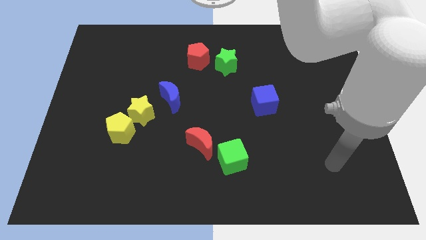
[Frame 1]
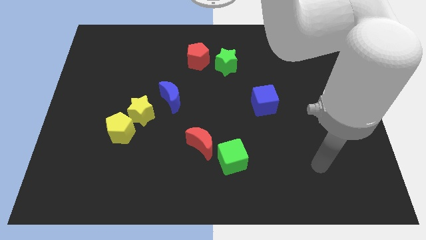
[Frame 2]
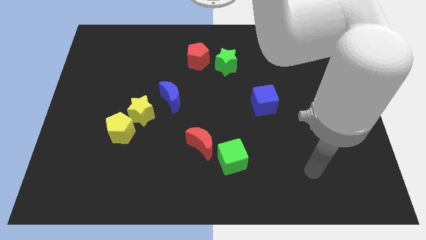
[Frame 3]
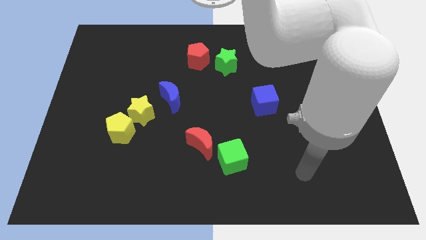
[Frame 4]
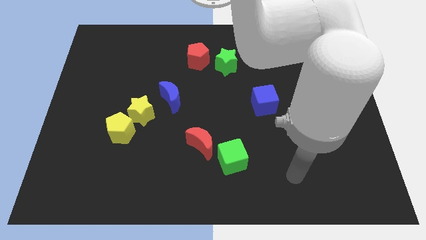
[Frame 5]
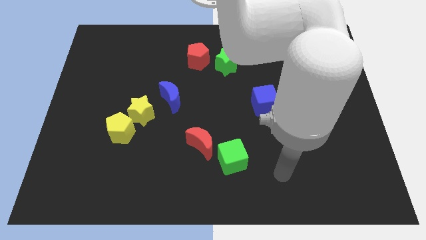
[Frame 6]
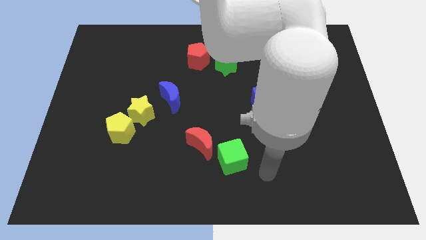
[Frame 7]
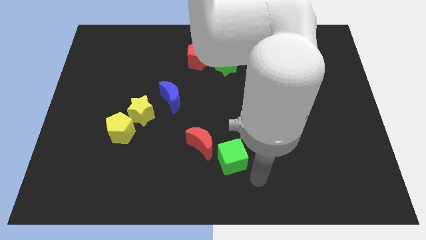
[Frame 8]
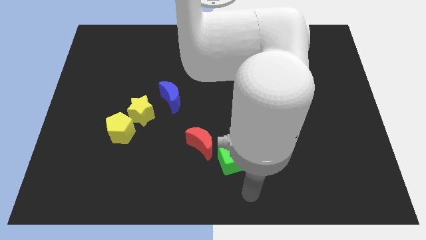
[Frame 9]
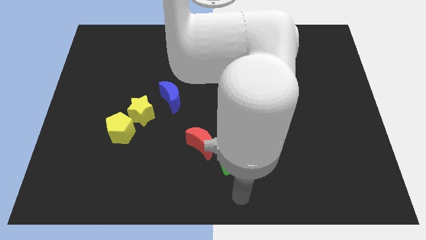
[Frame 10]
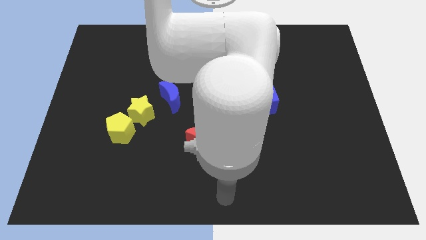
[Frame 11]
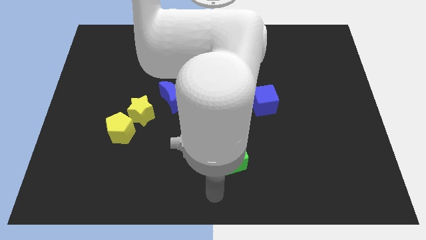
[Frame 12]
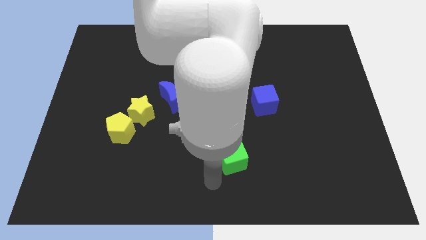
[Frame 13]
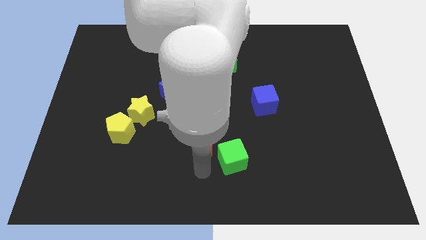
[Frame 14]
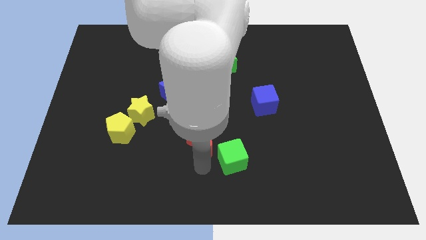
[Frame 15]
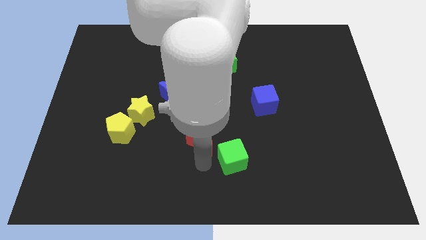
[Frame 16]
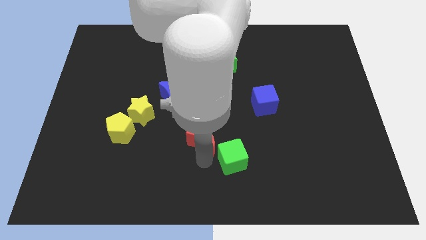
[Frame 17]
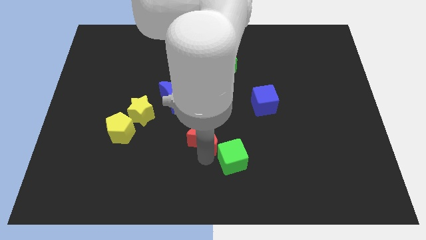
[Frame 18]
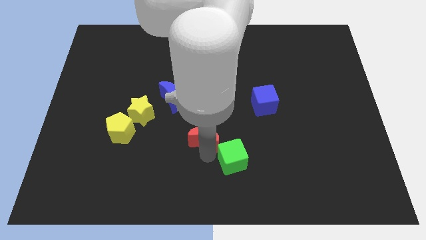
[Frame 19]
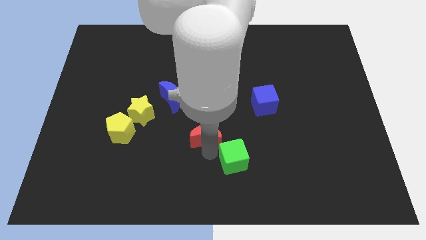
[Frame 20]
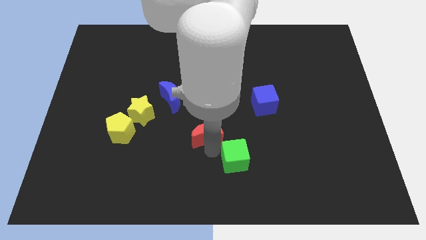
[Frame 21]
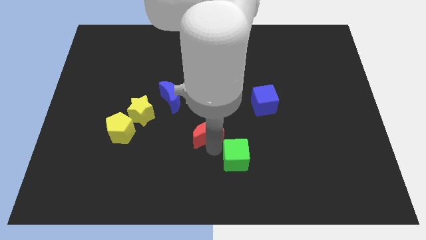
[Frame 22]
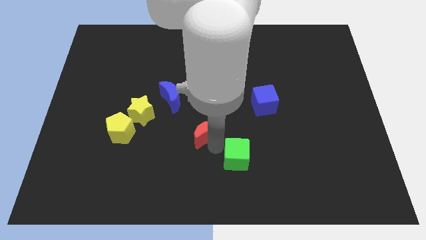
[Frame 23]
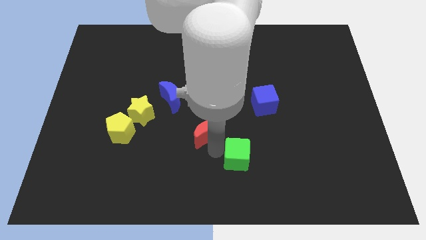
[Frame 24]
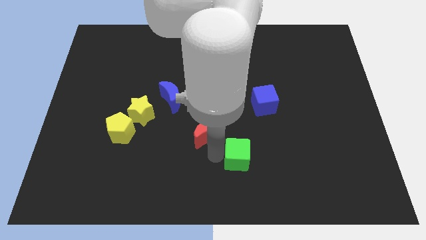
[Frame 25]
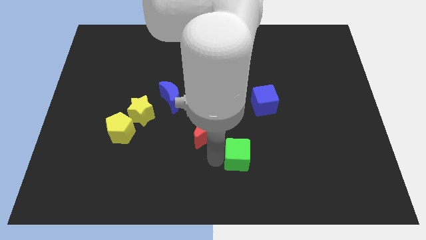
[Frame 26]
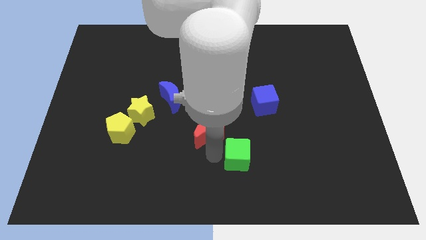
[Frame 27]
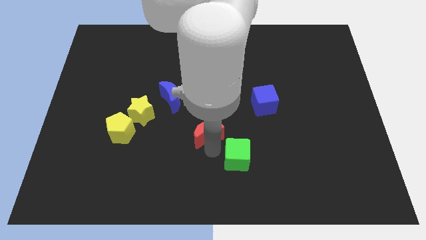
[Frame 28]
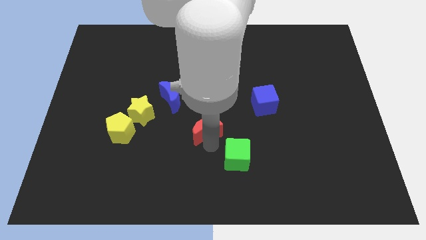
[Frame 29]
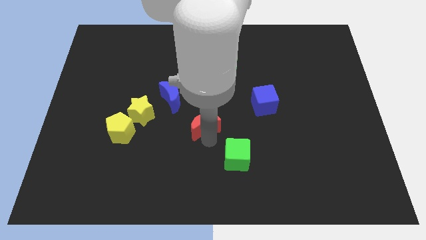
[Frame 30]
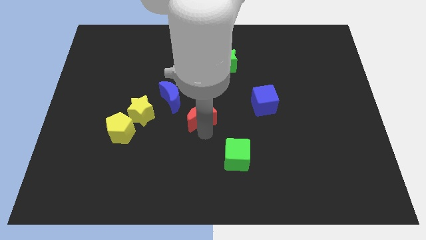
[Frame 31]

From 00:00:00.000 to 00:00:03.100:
move the red moon somewhat up

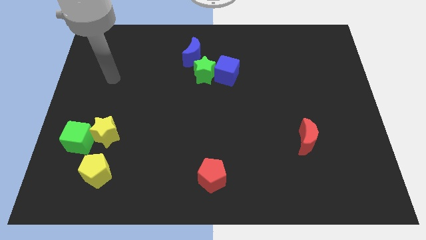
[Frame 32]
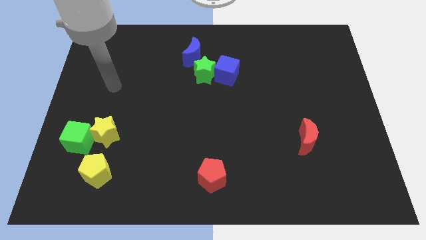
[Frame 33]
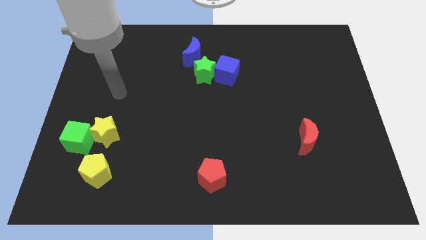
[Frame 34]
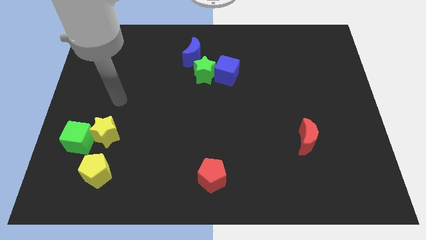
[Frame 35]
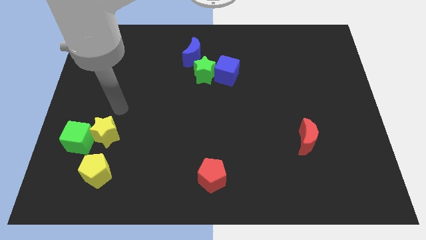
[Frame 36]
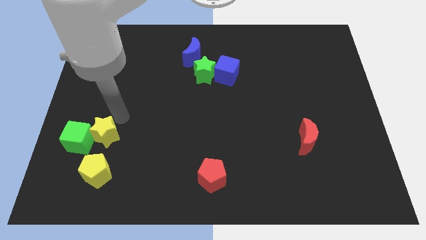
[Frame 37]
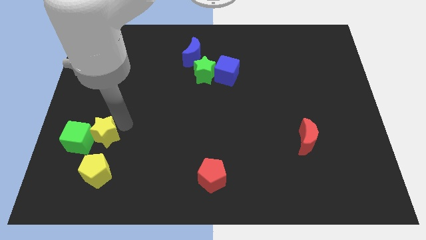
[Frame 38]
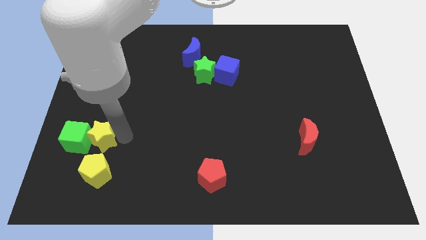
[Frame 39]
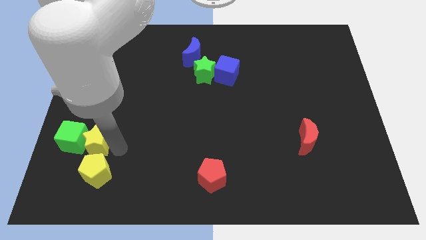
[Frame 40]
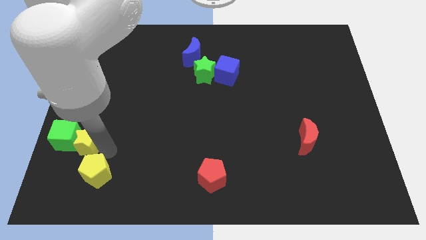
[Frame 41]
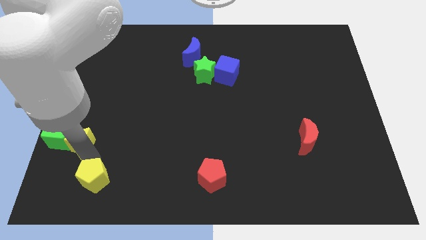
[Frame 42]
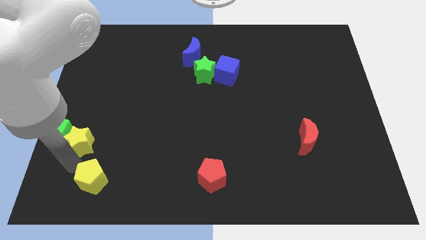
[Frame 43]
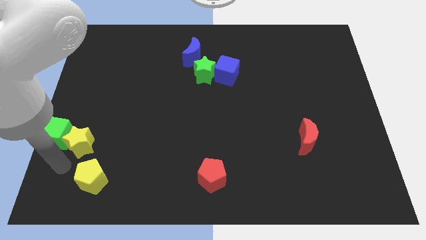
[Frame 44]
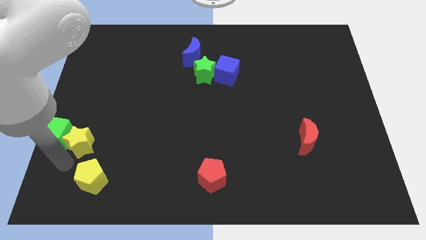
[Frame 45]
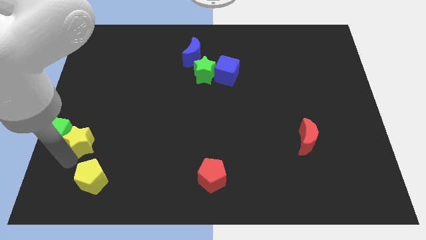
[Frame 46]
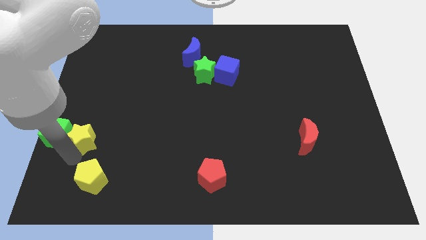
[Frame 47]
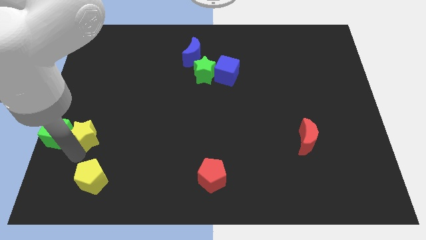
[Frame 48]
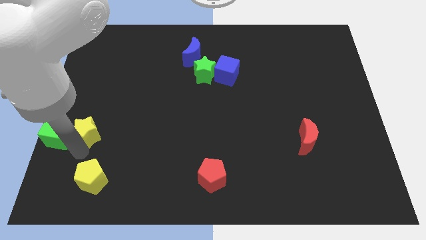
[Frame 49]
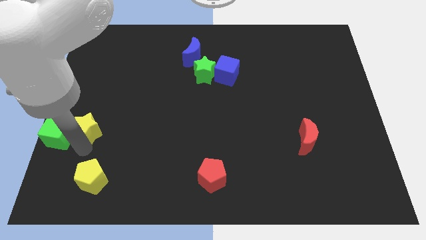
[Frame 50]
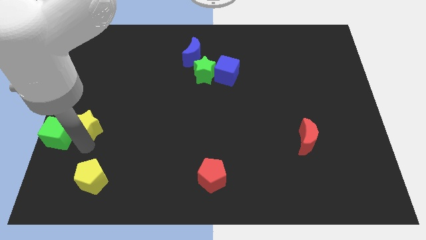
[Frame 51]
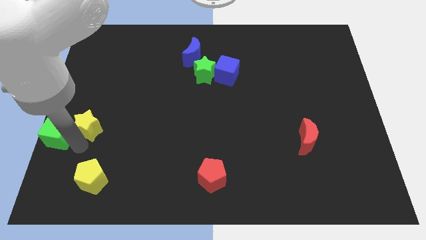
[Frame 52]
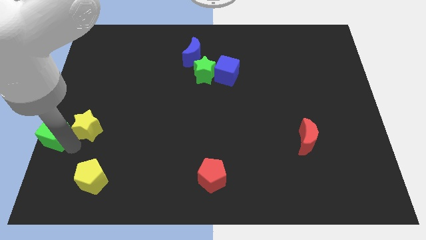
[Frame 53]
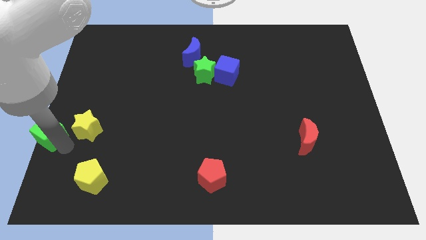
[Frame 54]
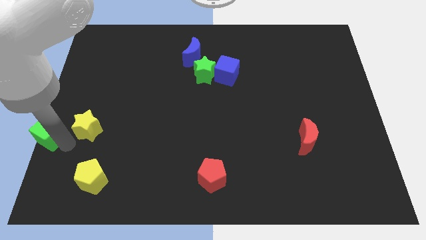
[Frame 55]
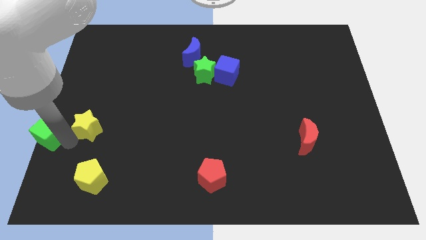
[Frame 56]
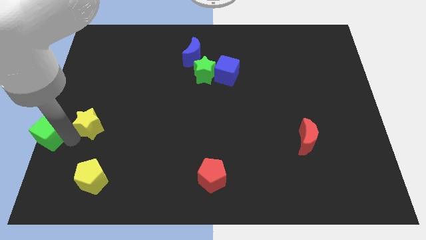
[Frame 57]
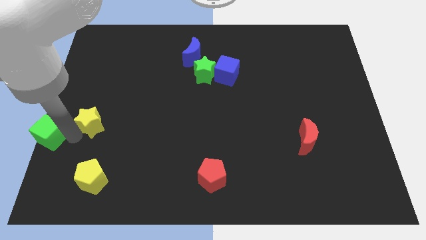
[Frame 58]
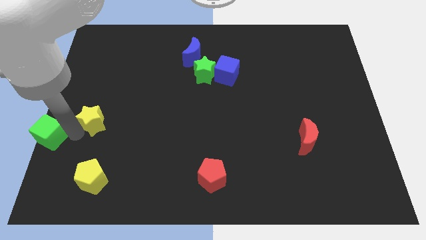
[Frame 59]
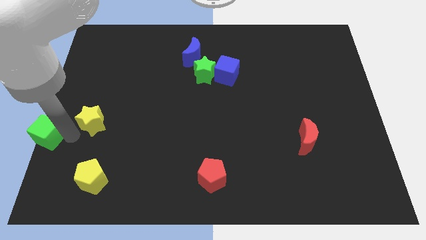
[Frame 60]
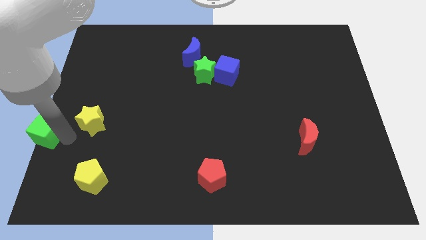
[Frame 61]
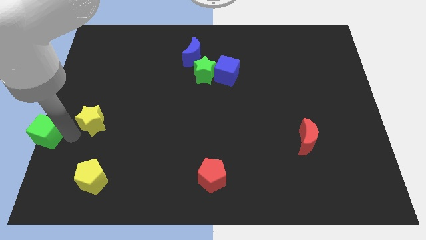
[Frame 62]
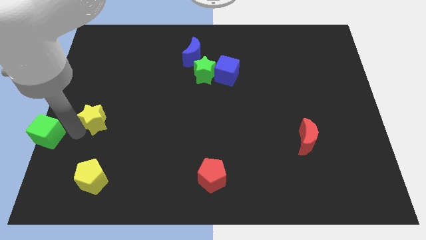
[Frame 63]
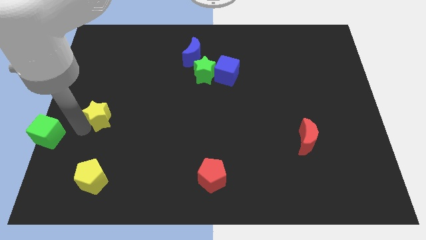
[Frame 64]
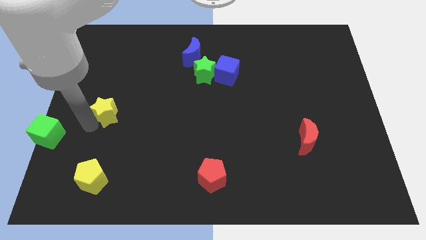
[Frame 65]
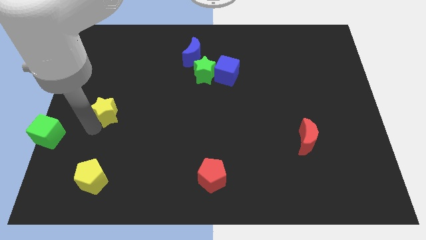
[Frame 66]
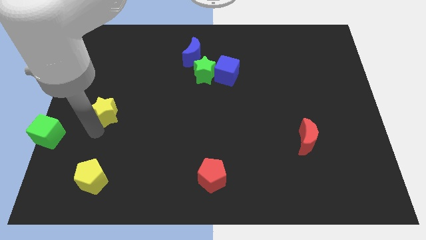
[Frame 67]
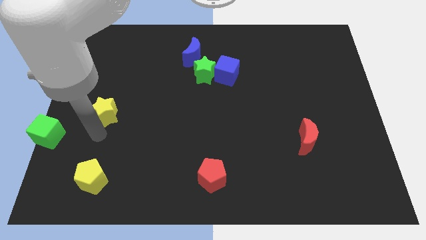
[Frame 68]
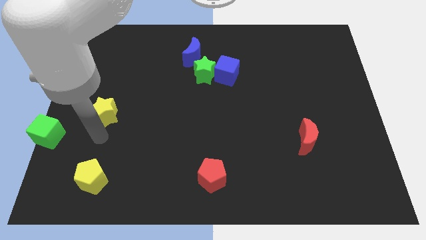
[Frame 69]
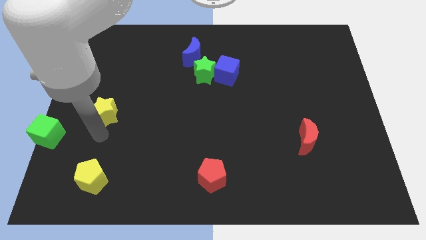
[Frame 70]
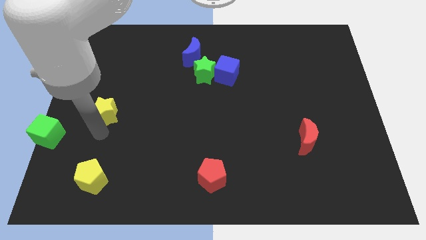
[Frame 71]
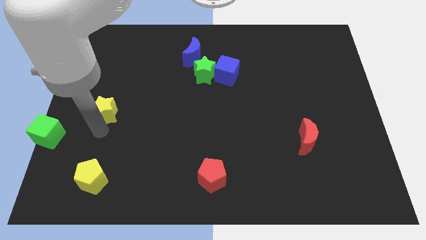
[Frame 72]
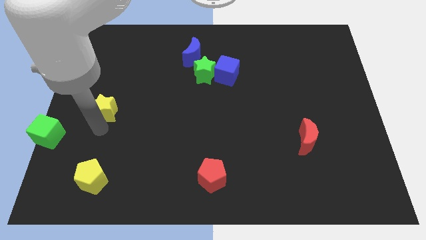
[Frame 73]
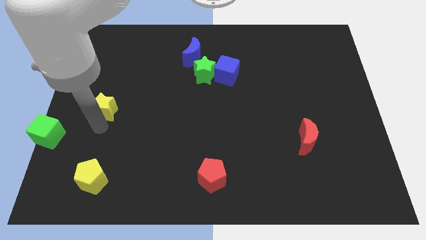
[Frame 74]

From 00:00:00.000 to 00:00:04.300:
move the yellow star upwards a little bit

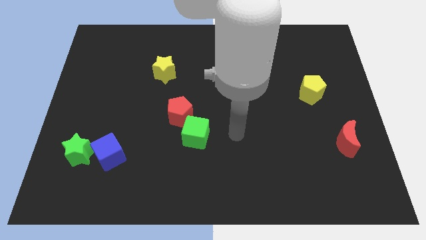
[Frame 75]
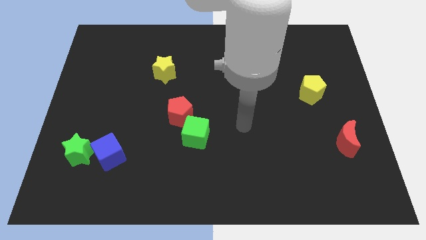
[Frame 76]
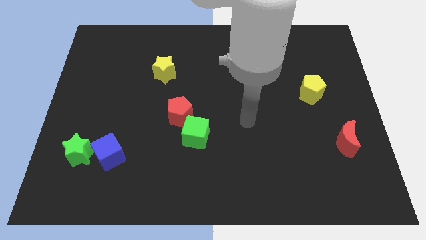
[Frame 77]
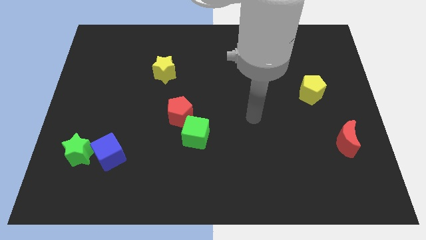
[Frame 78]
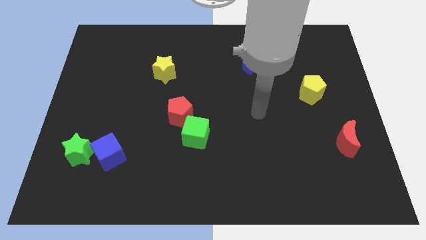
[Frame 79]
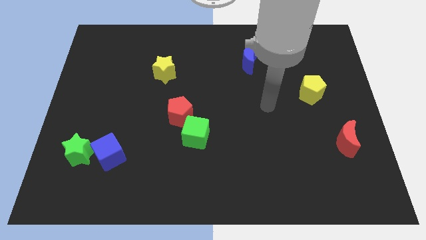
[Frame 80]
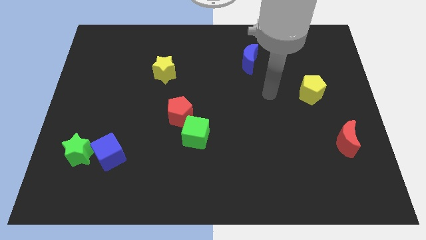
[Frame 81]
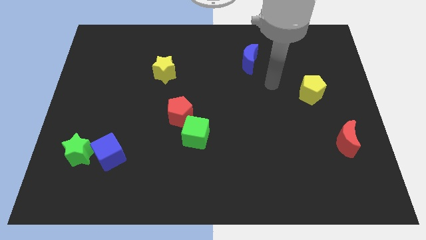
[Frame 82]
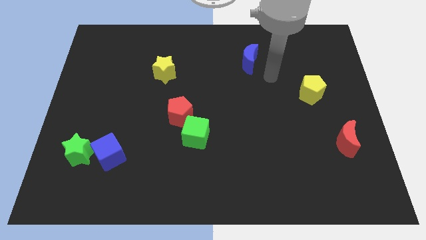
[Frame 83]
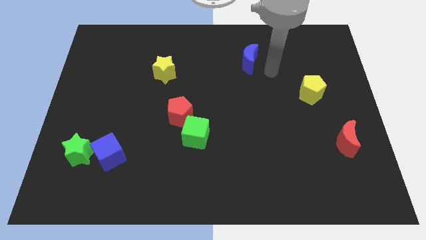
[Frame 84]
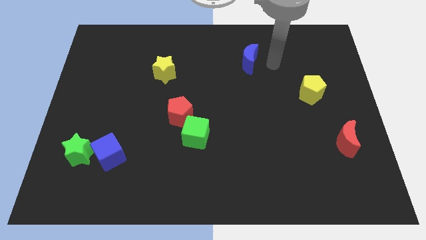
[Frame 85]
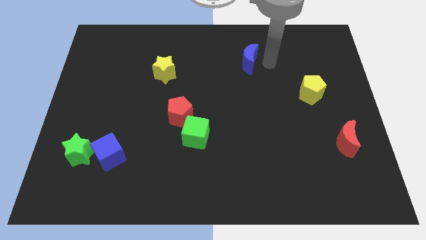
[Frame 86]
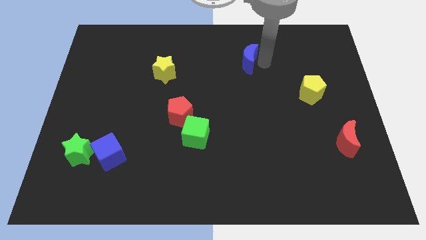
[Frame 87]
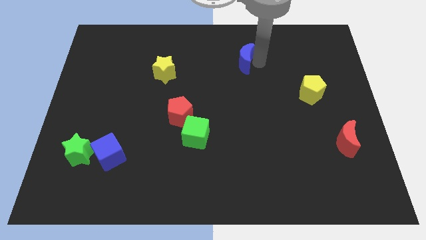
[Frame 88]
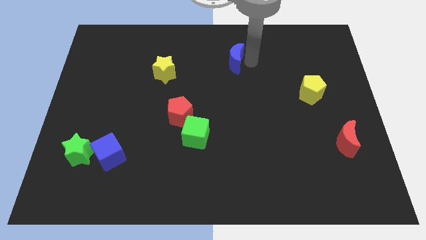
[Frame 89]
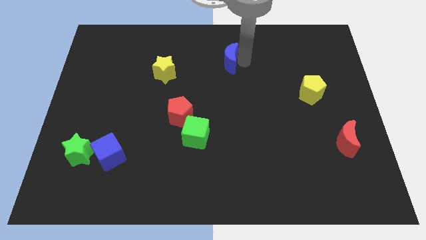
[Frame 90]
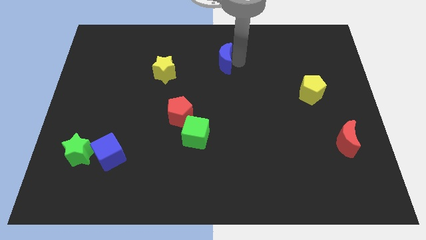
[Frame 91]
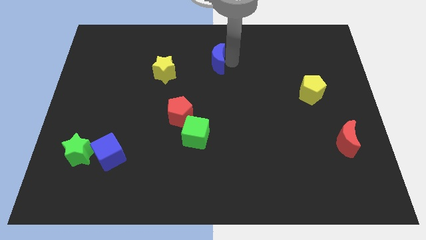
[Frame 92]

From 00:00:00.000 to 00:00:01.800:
slide the blue moon left slightly
